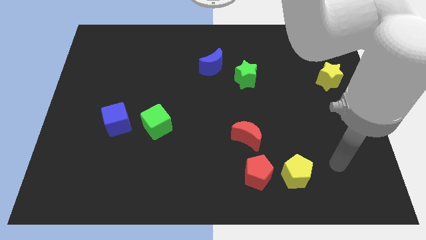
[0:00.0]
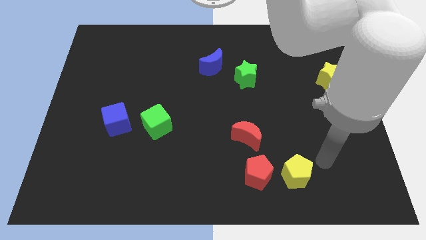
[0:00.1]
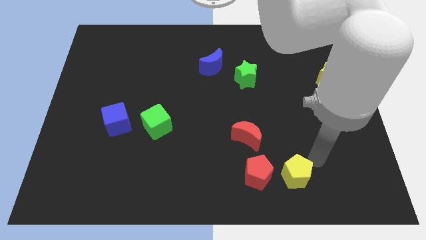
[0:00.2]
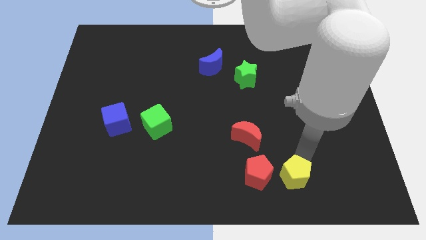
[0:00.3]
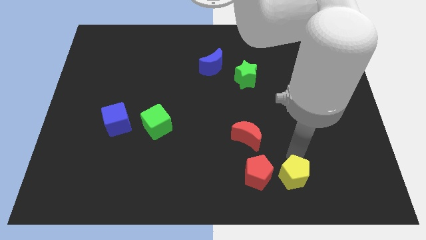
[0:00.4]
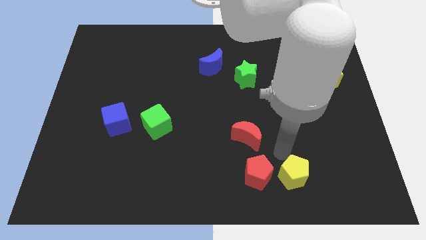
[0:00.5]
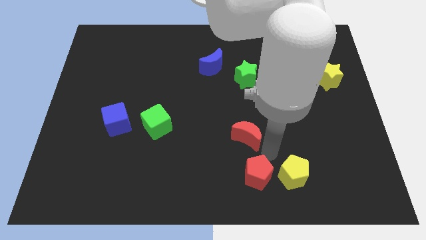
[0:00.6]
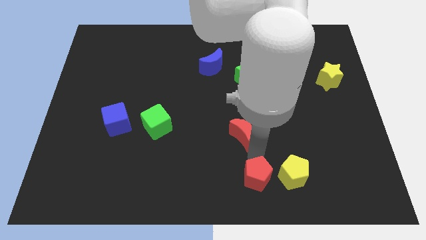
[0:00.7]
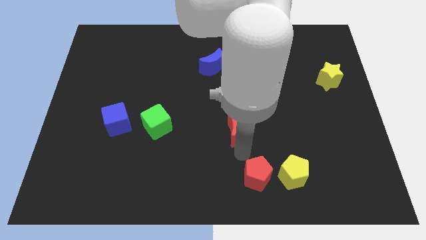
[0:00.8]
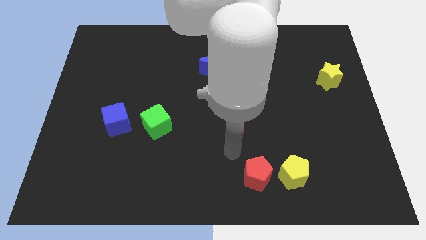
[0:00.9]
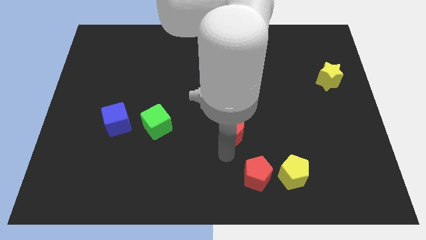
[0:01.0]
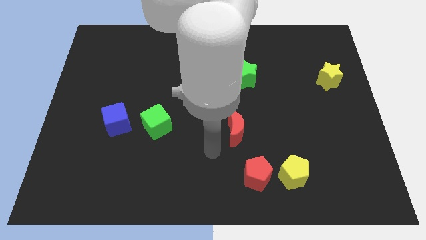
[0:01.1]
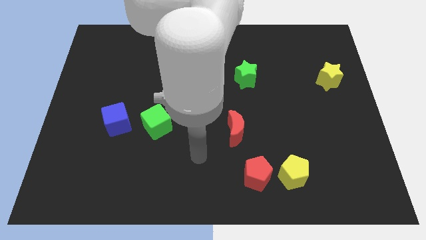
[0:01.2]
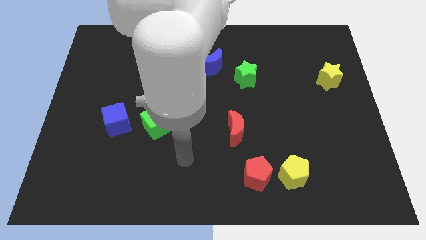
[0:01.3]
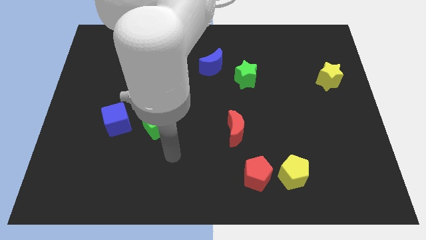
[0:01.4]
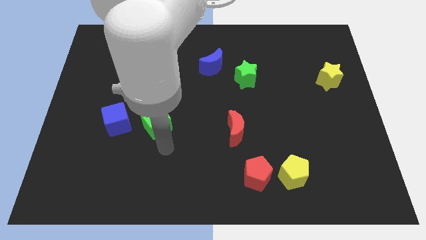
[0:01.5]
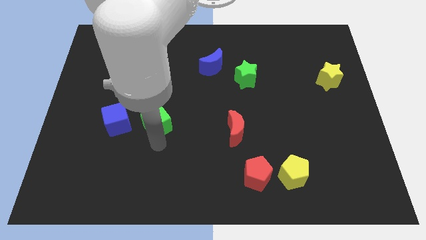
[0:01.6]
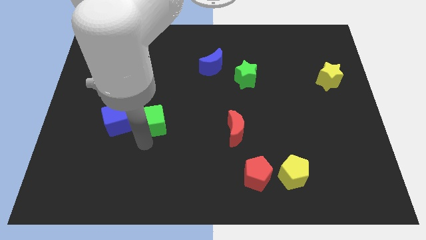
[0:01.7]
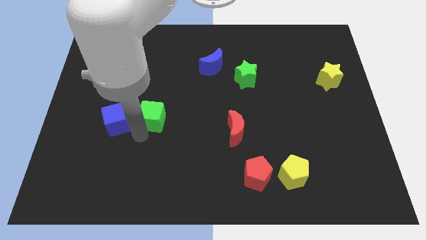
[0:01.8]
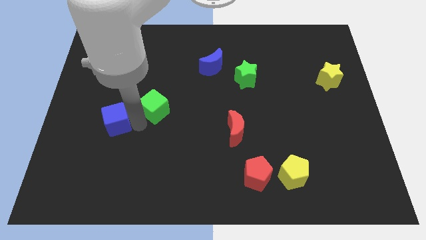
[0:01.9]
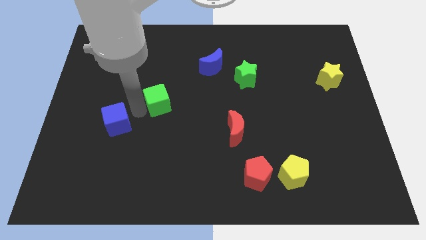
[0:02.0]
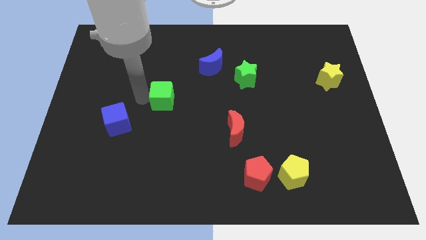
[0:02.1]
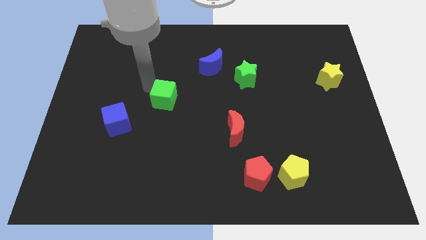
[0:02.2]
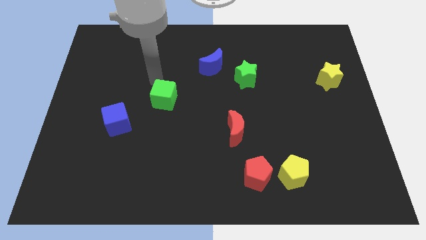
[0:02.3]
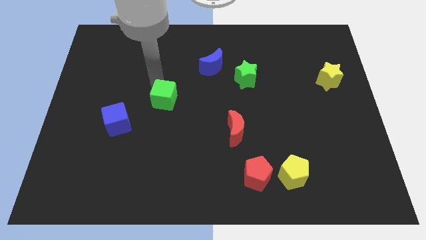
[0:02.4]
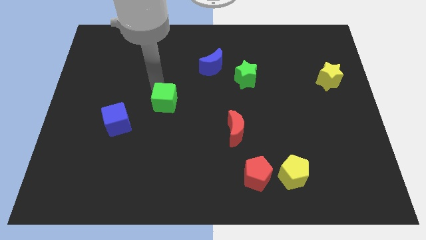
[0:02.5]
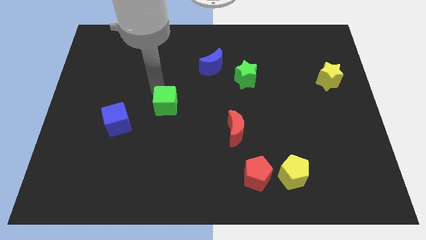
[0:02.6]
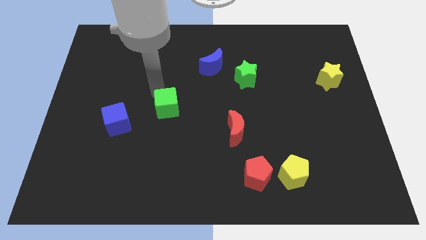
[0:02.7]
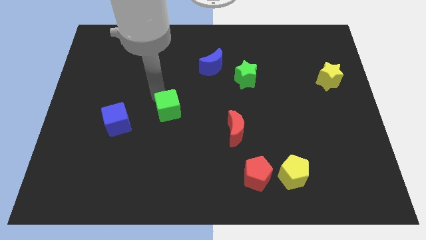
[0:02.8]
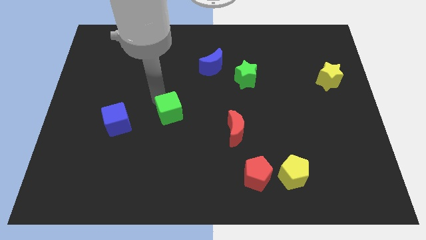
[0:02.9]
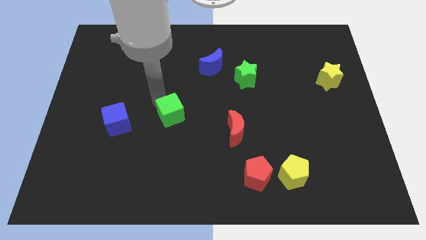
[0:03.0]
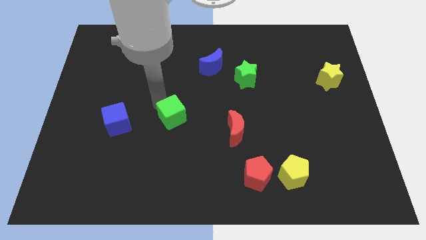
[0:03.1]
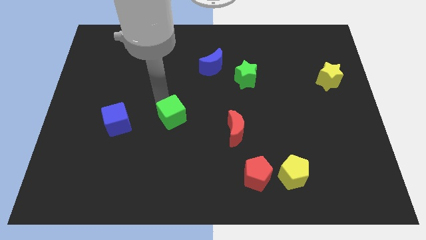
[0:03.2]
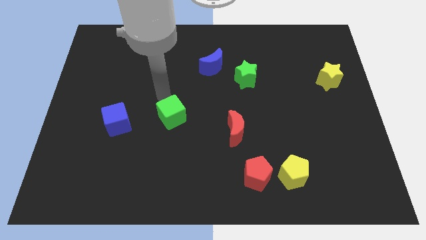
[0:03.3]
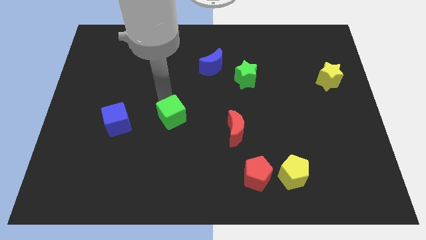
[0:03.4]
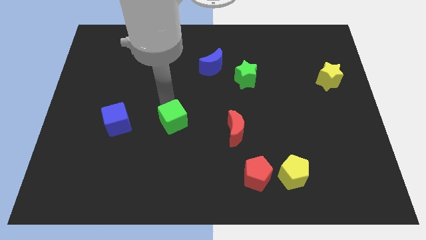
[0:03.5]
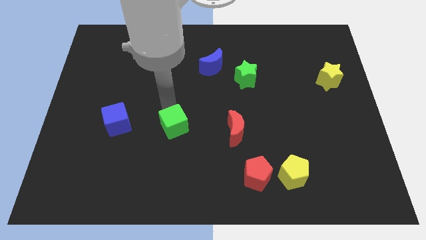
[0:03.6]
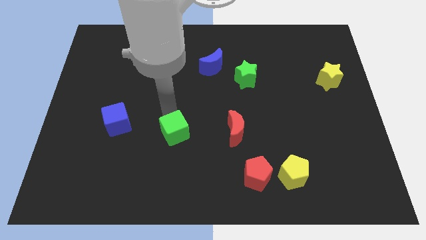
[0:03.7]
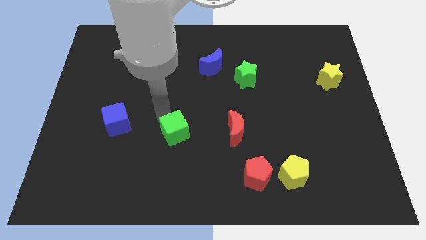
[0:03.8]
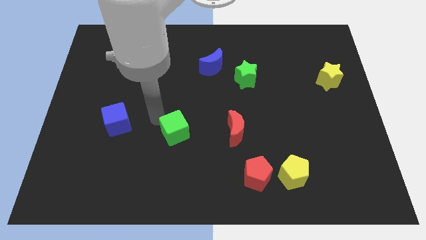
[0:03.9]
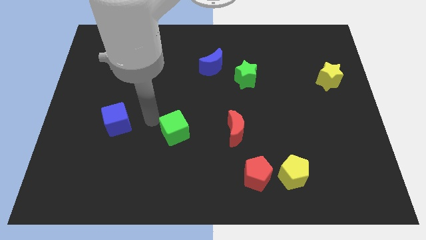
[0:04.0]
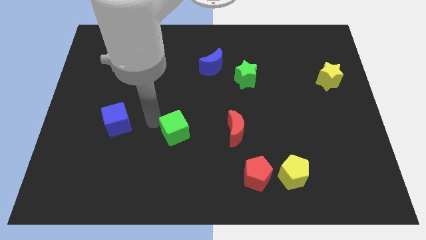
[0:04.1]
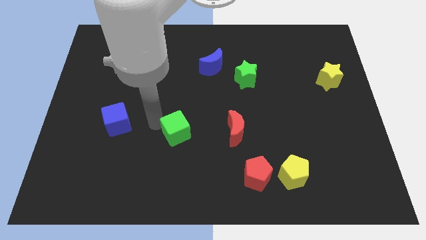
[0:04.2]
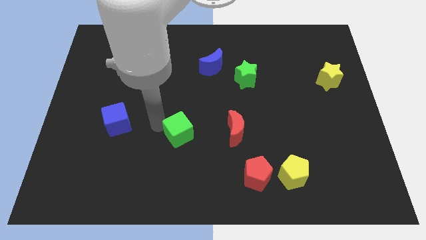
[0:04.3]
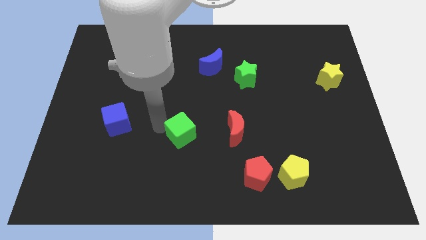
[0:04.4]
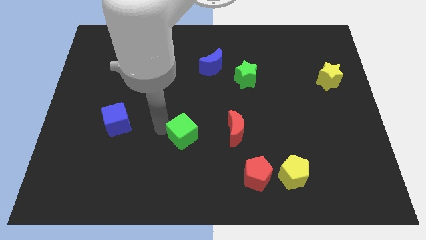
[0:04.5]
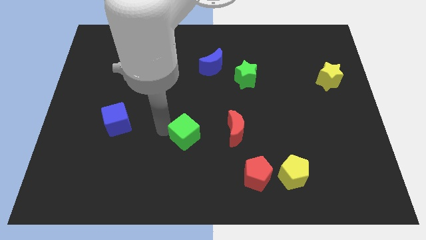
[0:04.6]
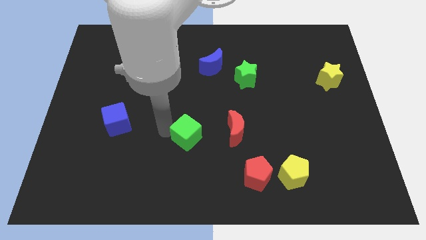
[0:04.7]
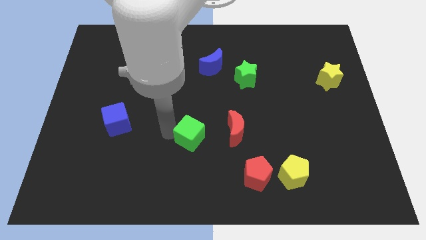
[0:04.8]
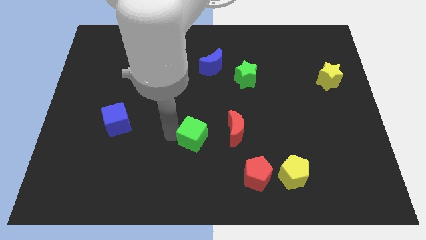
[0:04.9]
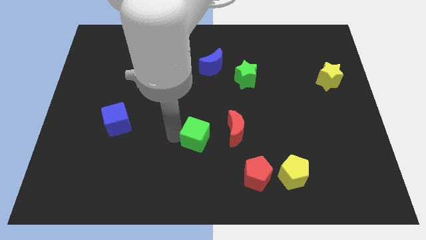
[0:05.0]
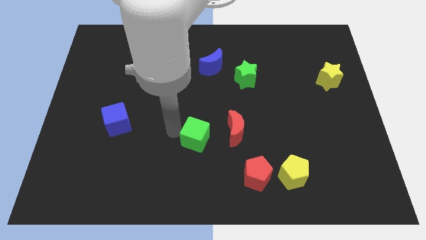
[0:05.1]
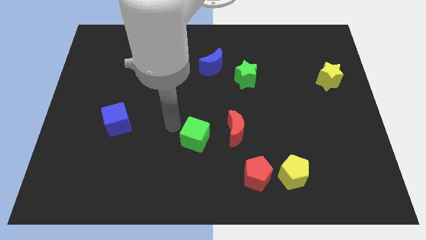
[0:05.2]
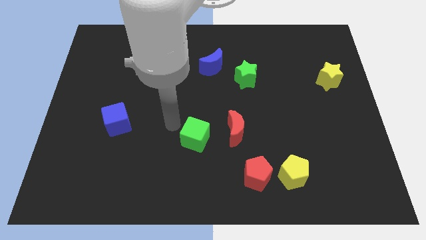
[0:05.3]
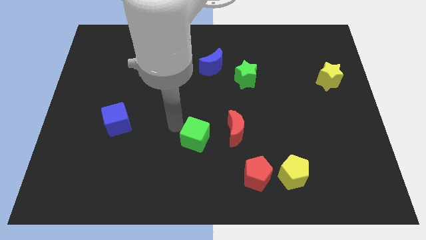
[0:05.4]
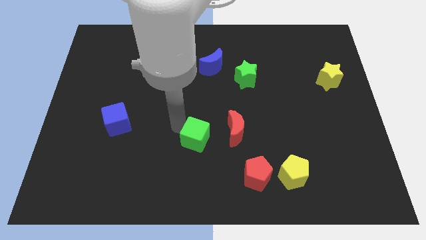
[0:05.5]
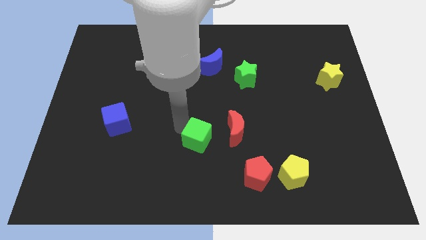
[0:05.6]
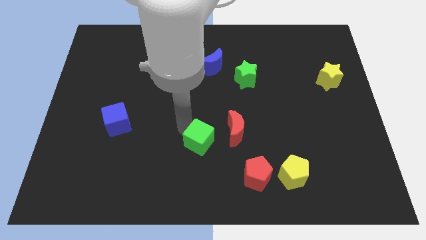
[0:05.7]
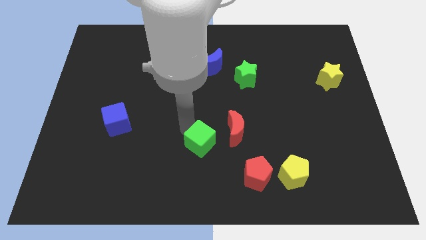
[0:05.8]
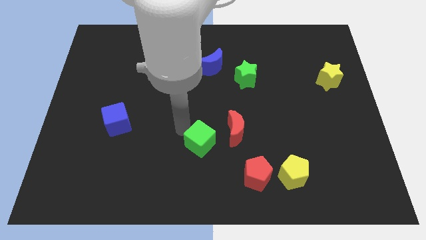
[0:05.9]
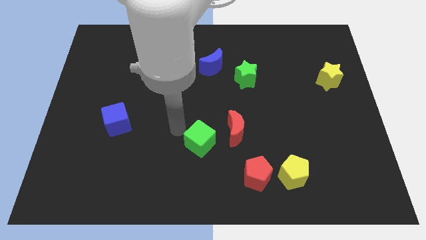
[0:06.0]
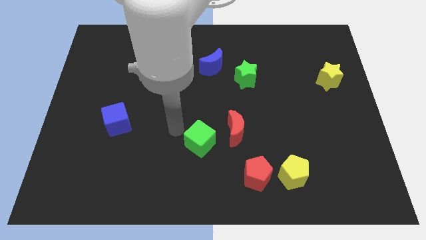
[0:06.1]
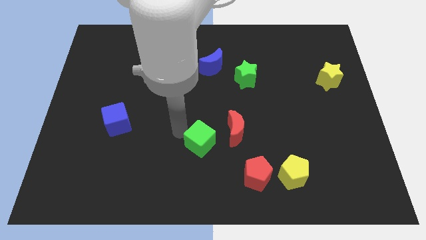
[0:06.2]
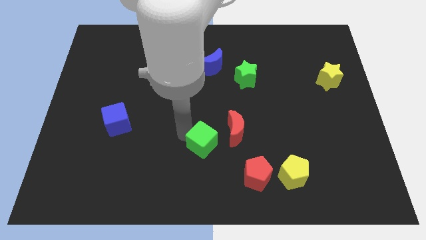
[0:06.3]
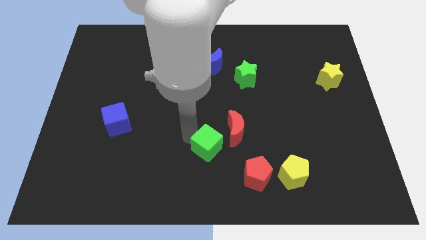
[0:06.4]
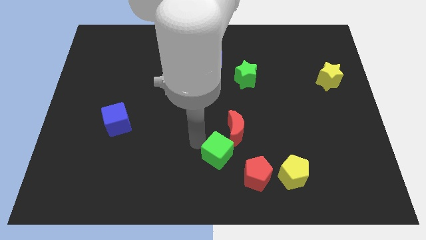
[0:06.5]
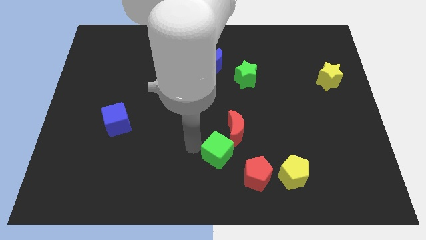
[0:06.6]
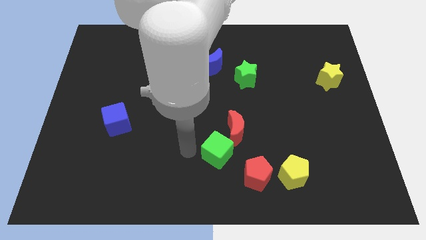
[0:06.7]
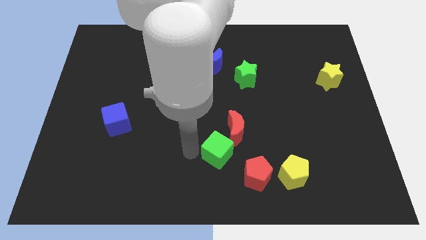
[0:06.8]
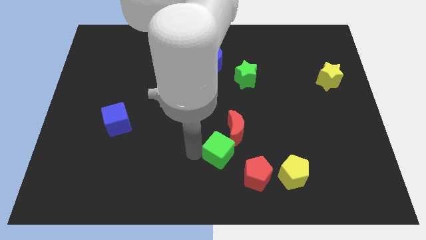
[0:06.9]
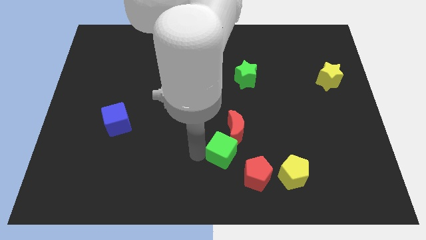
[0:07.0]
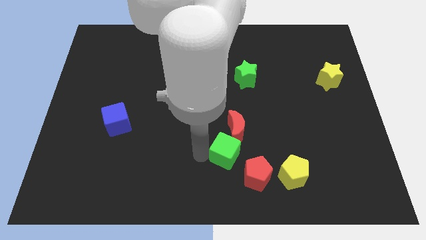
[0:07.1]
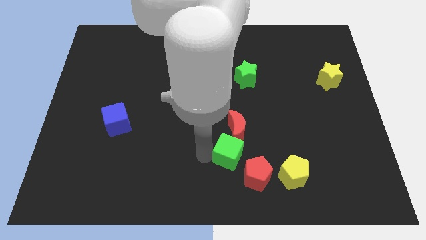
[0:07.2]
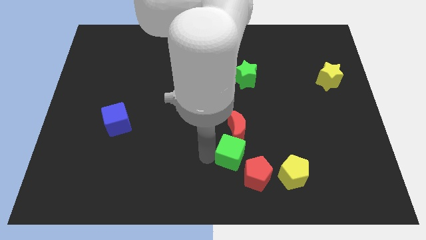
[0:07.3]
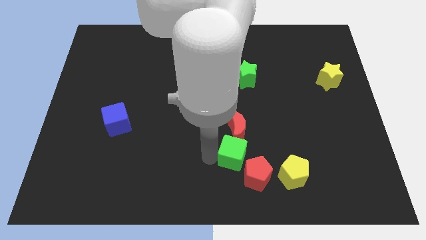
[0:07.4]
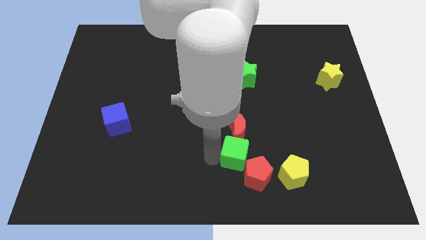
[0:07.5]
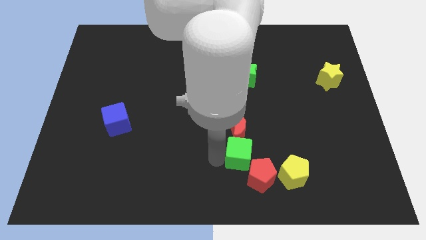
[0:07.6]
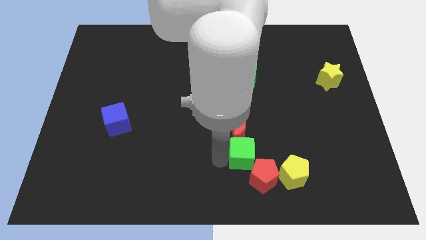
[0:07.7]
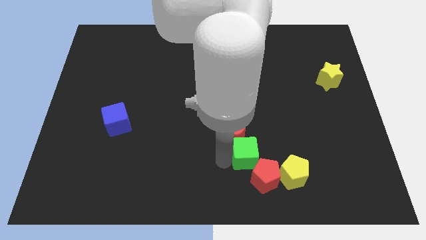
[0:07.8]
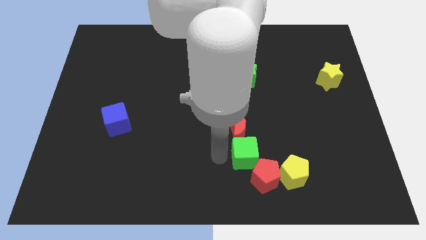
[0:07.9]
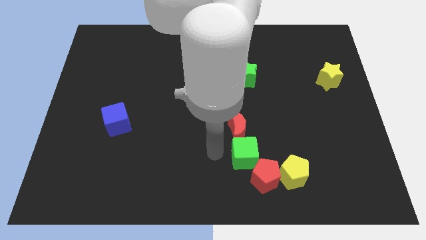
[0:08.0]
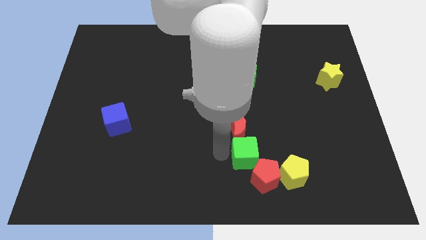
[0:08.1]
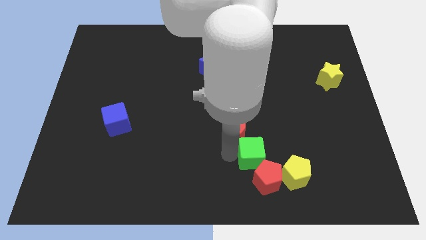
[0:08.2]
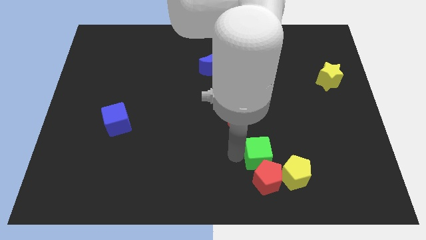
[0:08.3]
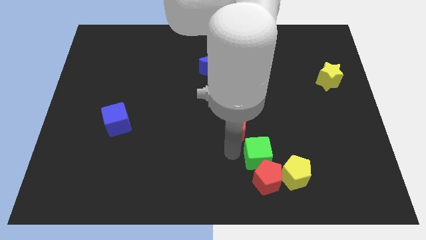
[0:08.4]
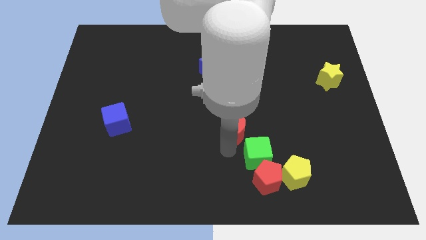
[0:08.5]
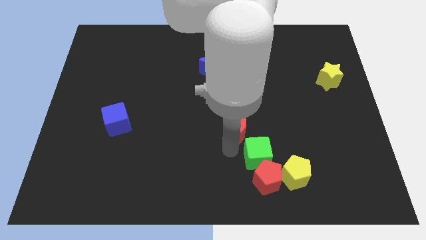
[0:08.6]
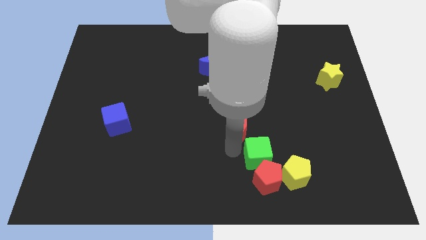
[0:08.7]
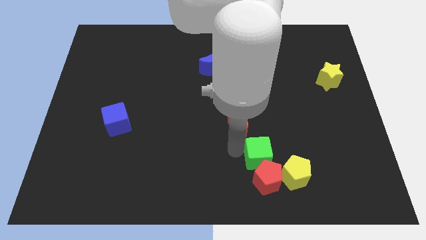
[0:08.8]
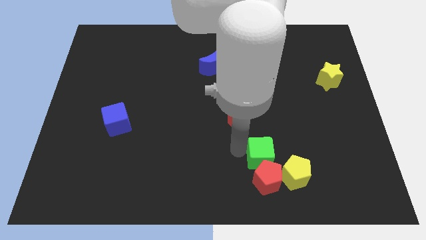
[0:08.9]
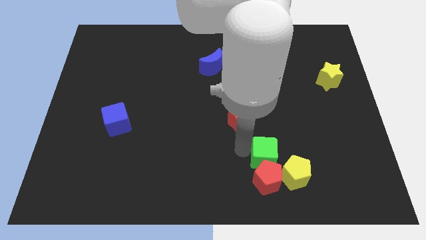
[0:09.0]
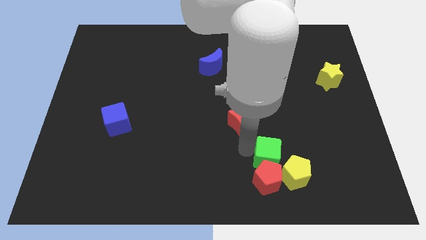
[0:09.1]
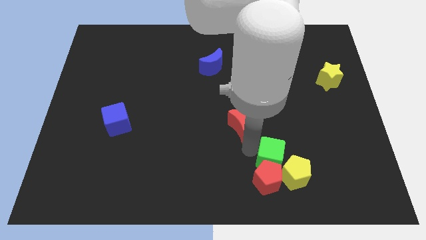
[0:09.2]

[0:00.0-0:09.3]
put the green cube to the yellow pentagon
